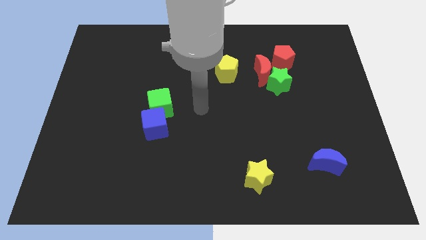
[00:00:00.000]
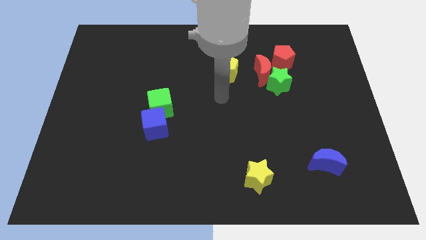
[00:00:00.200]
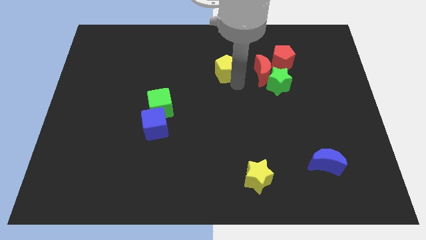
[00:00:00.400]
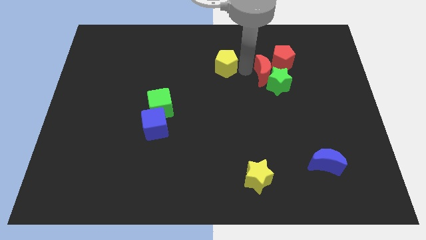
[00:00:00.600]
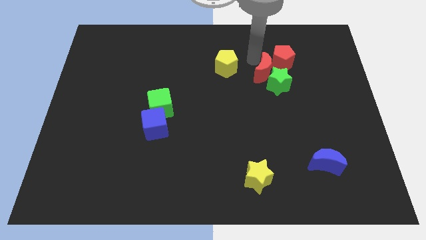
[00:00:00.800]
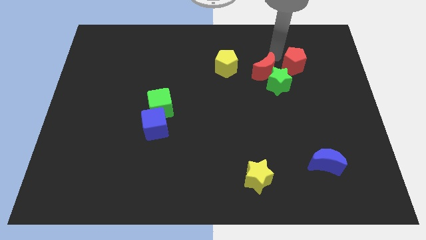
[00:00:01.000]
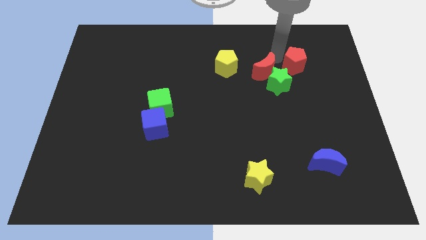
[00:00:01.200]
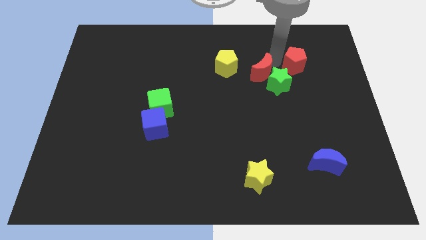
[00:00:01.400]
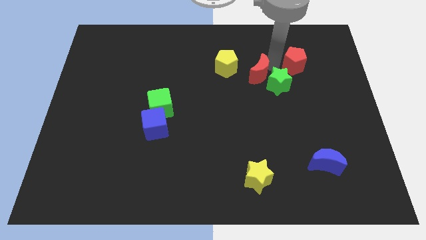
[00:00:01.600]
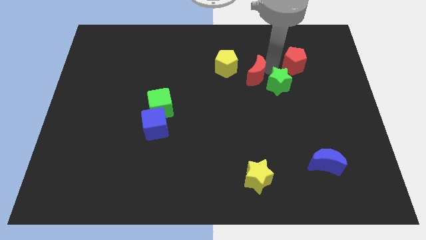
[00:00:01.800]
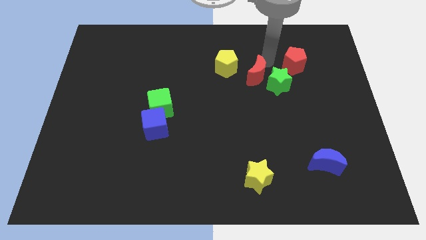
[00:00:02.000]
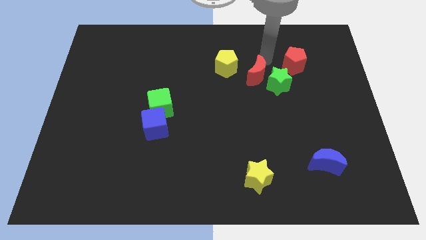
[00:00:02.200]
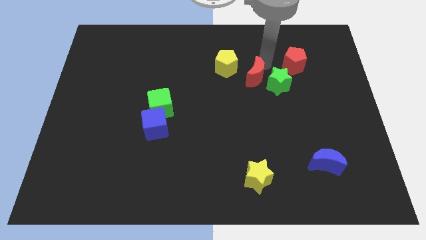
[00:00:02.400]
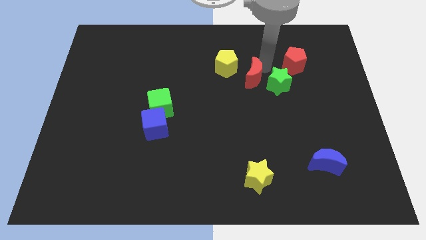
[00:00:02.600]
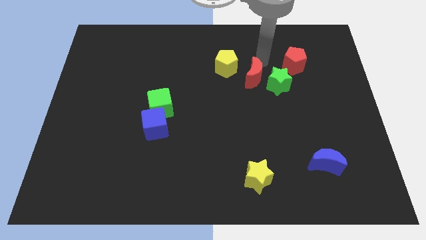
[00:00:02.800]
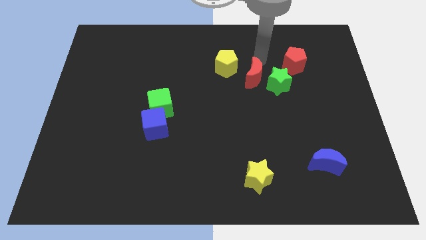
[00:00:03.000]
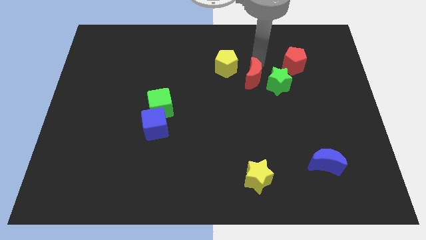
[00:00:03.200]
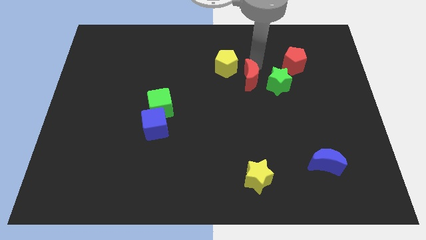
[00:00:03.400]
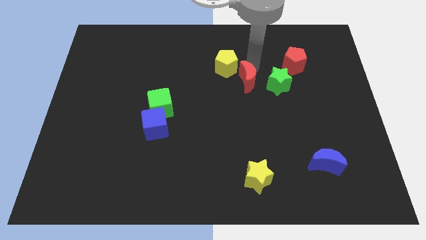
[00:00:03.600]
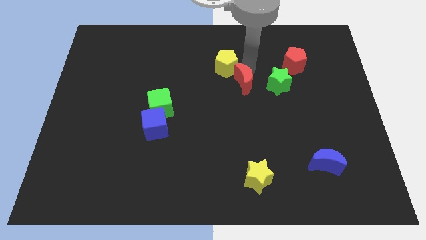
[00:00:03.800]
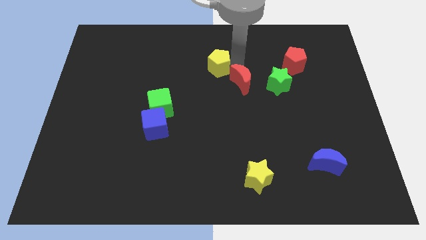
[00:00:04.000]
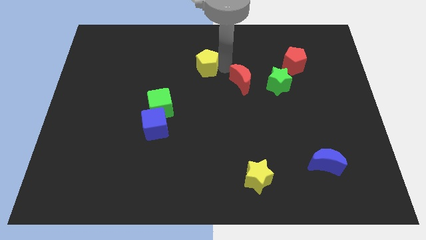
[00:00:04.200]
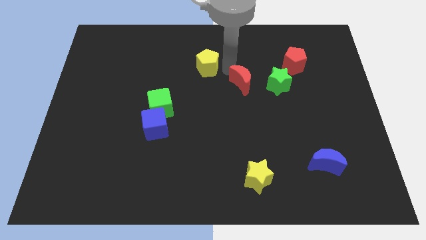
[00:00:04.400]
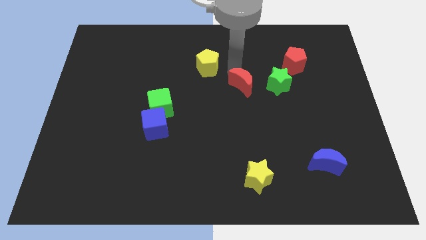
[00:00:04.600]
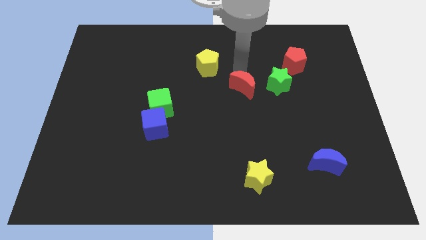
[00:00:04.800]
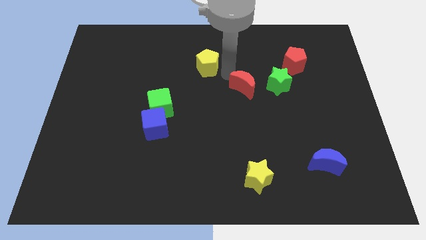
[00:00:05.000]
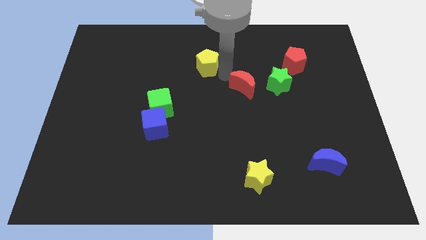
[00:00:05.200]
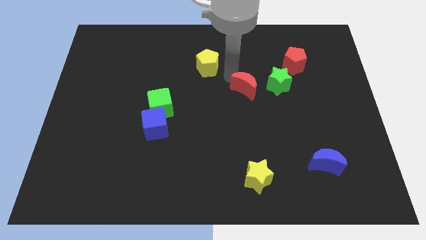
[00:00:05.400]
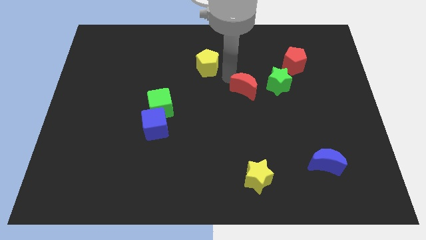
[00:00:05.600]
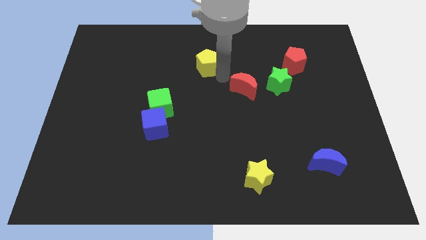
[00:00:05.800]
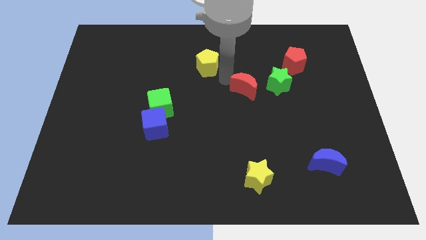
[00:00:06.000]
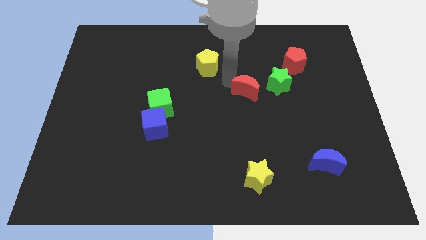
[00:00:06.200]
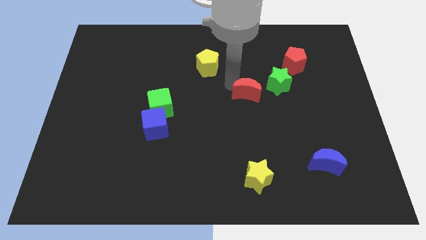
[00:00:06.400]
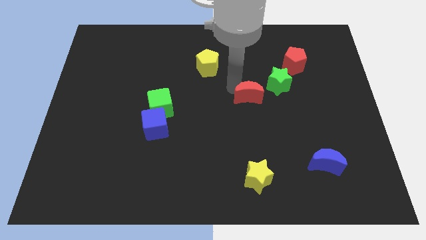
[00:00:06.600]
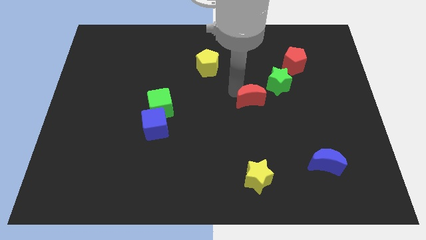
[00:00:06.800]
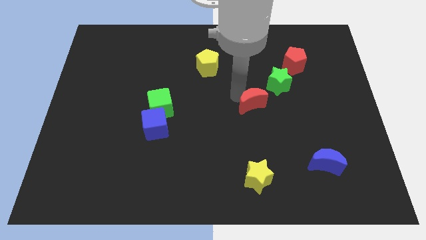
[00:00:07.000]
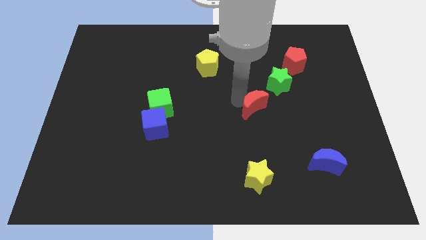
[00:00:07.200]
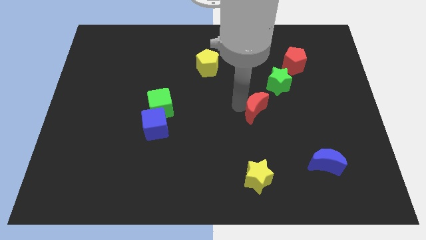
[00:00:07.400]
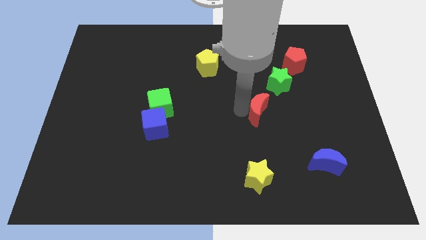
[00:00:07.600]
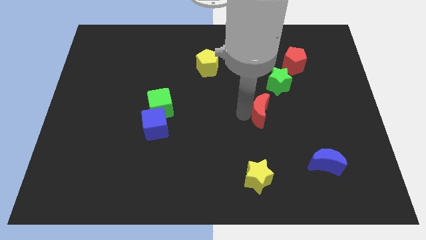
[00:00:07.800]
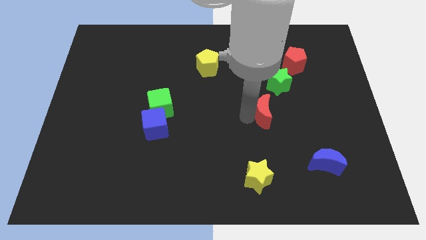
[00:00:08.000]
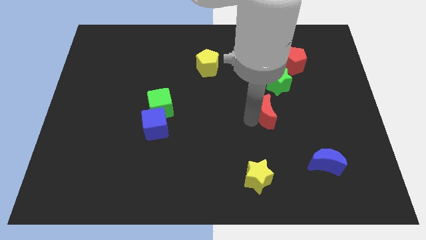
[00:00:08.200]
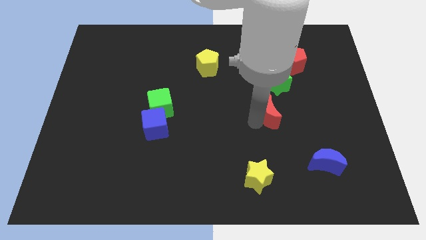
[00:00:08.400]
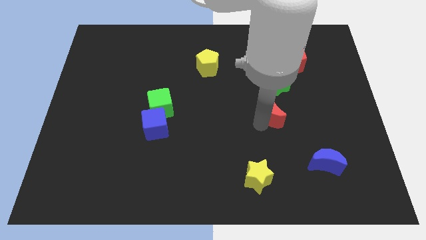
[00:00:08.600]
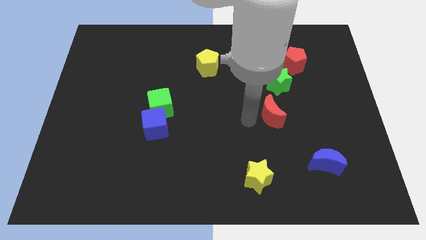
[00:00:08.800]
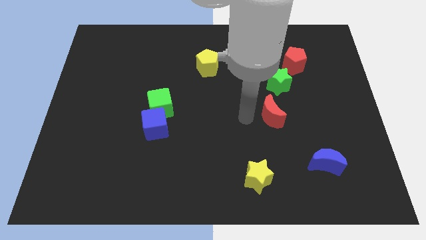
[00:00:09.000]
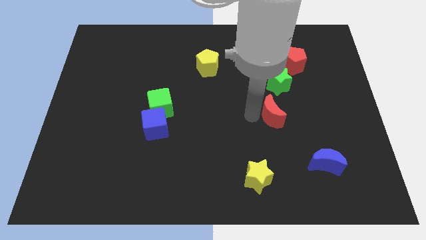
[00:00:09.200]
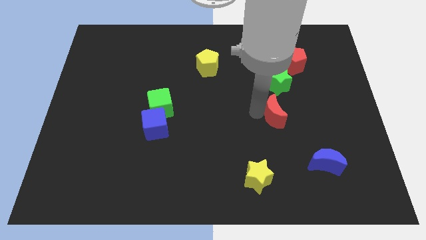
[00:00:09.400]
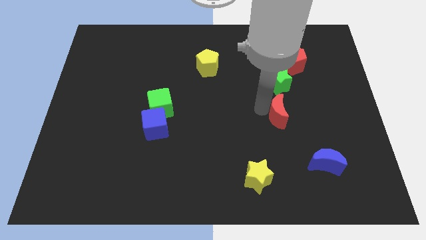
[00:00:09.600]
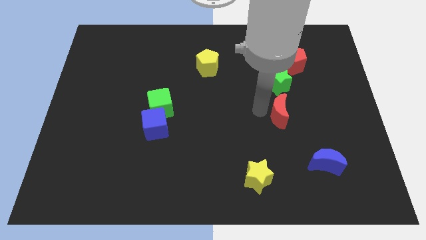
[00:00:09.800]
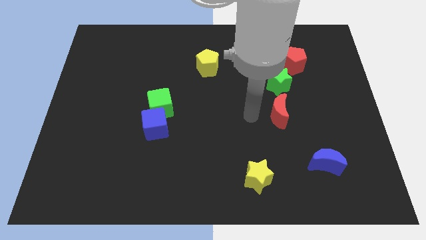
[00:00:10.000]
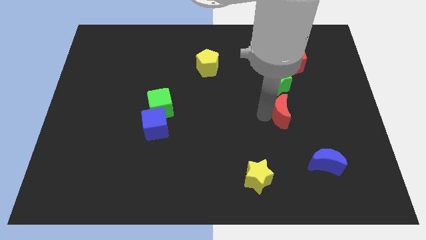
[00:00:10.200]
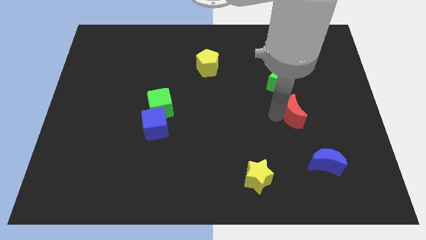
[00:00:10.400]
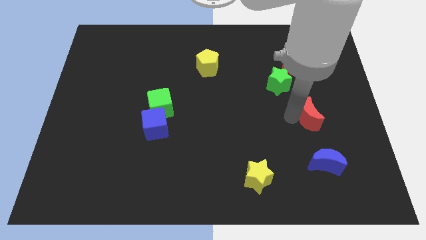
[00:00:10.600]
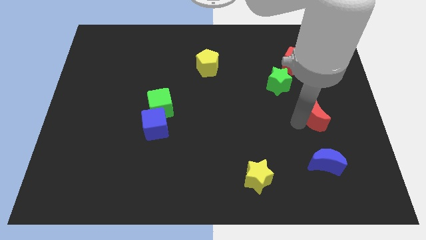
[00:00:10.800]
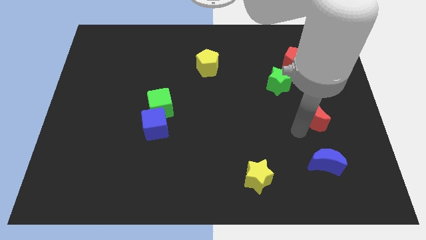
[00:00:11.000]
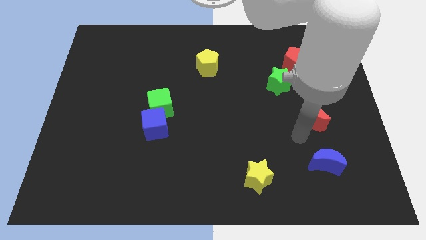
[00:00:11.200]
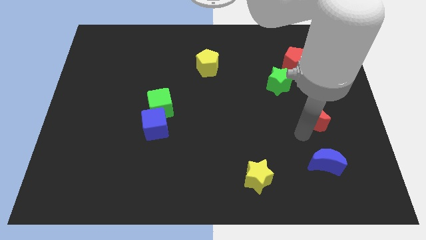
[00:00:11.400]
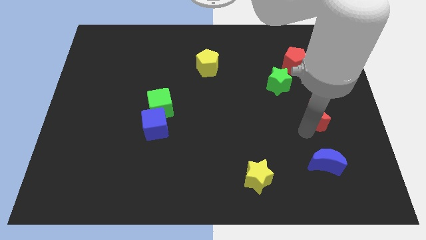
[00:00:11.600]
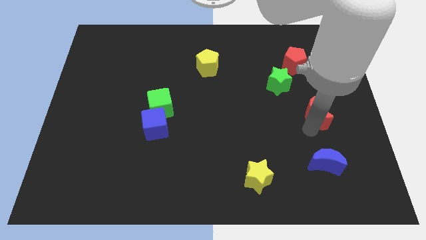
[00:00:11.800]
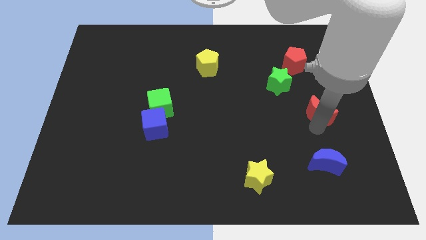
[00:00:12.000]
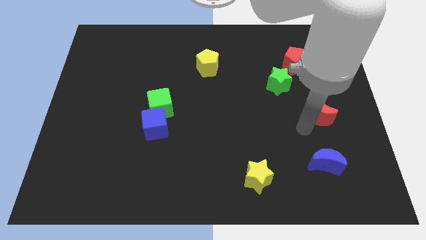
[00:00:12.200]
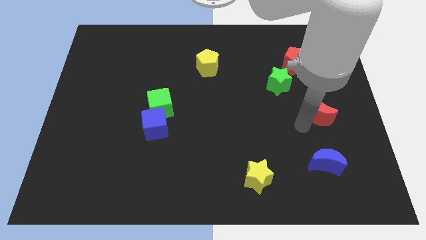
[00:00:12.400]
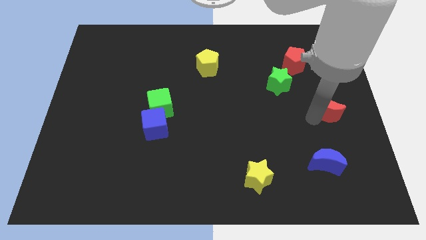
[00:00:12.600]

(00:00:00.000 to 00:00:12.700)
put the red moon to the right side
